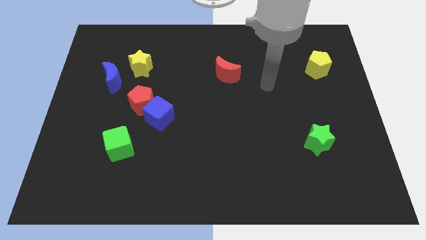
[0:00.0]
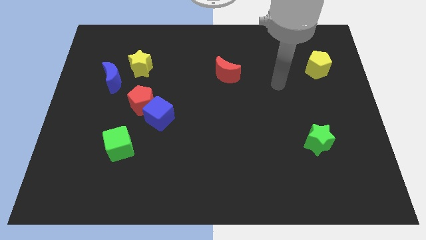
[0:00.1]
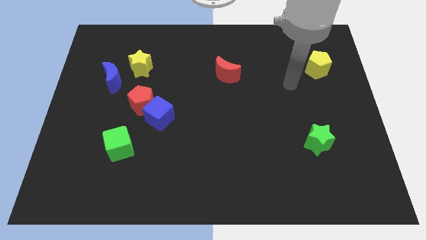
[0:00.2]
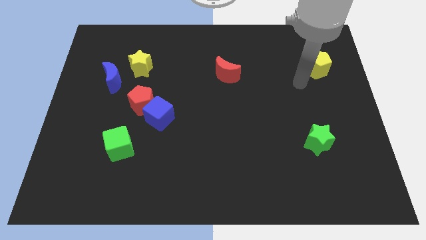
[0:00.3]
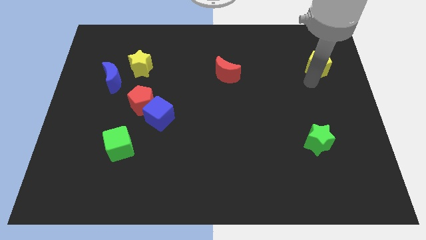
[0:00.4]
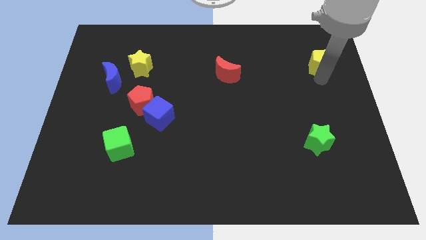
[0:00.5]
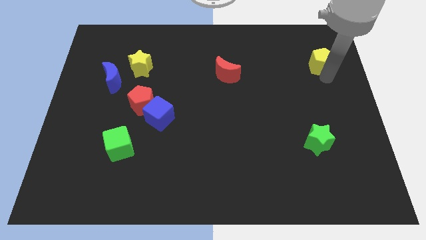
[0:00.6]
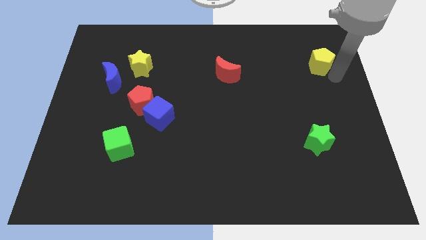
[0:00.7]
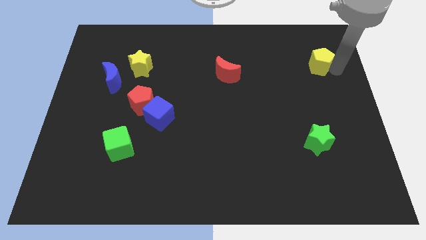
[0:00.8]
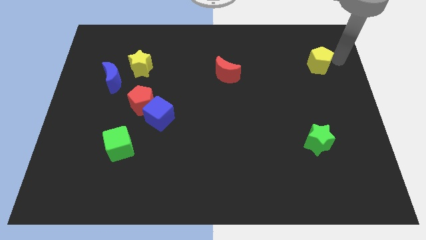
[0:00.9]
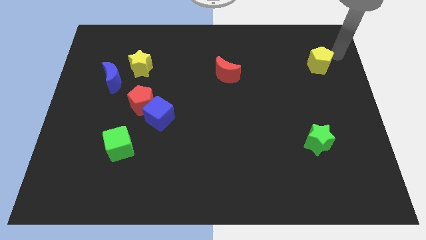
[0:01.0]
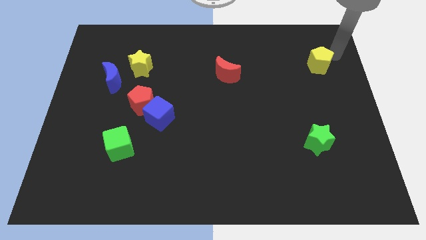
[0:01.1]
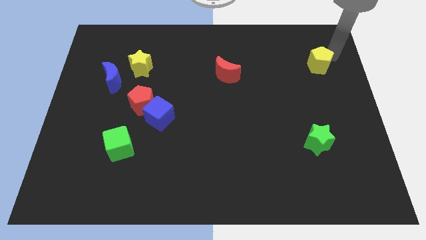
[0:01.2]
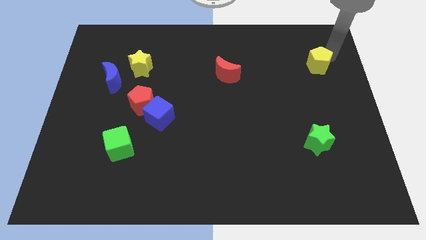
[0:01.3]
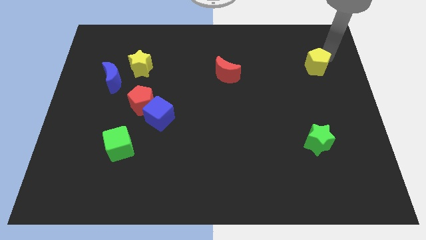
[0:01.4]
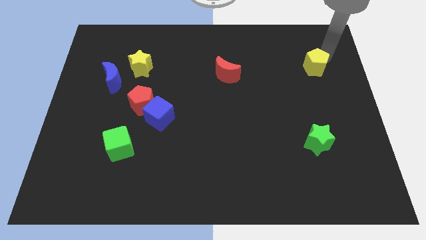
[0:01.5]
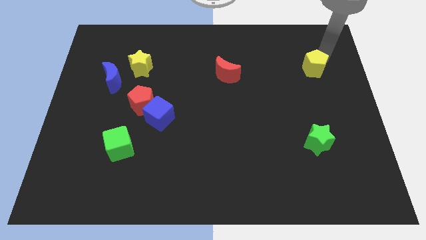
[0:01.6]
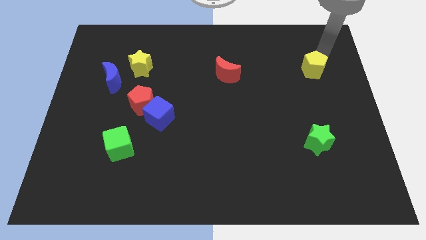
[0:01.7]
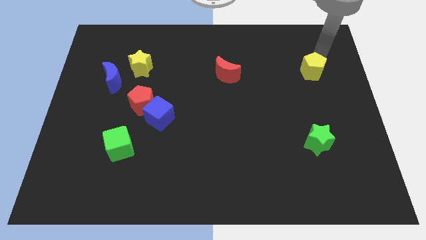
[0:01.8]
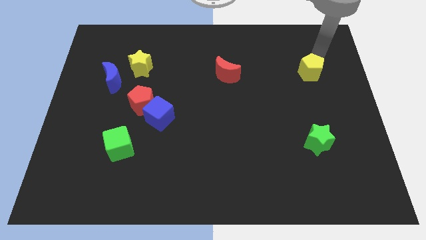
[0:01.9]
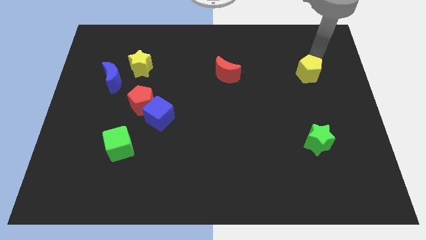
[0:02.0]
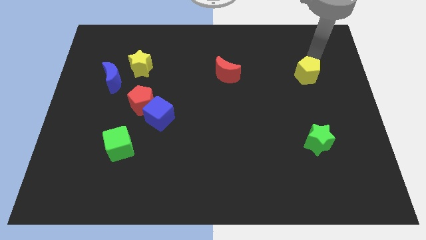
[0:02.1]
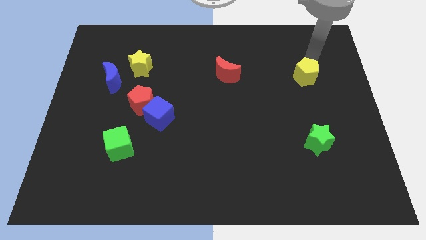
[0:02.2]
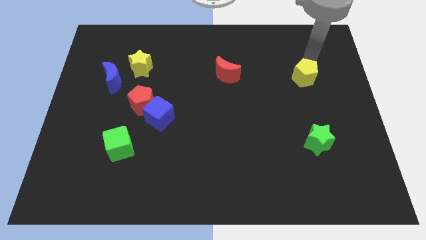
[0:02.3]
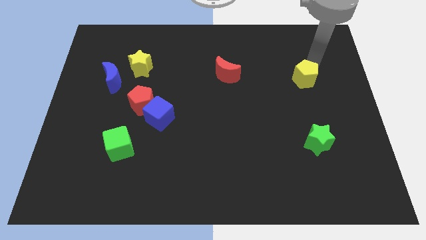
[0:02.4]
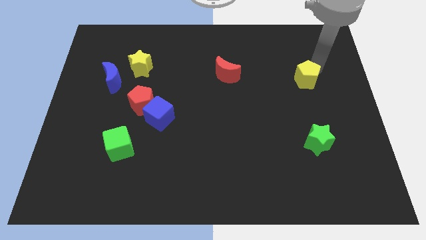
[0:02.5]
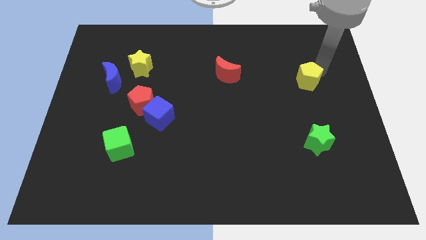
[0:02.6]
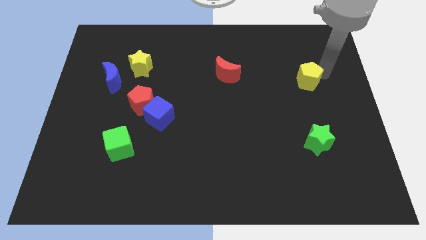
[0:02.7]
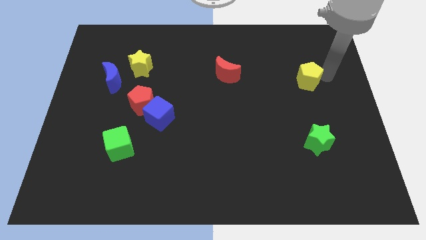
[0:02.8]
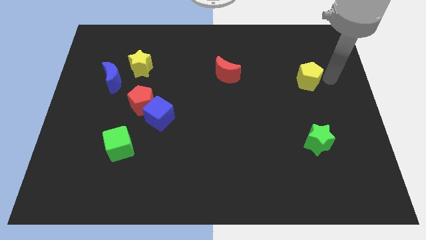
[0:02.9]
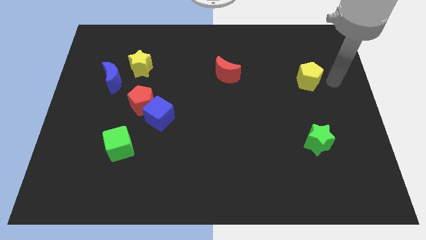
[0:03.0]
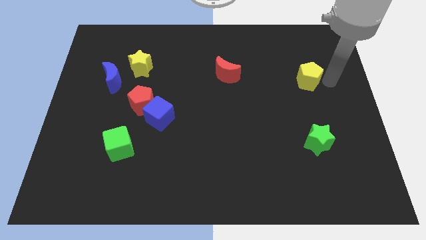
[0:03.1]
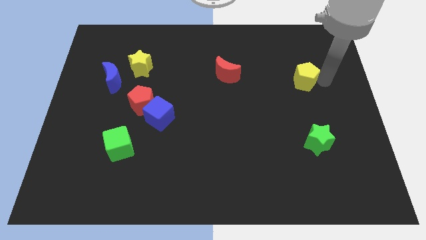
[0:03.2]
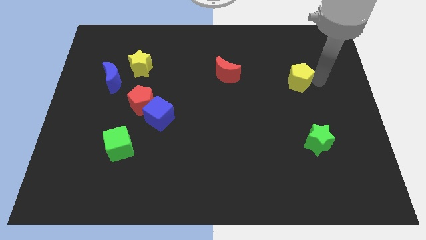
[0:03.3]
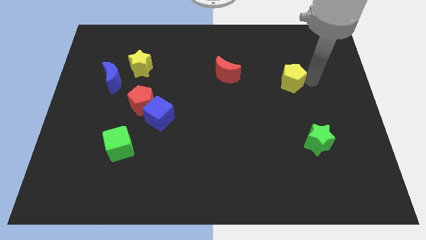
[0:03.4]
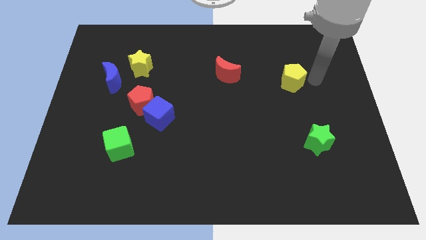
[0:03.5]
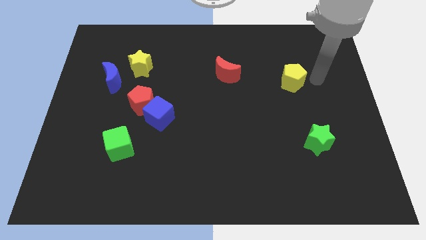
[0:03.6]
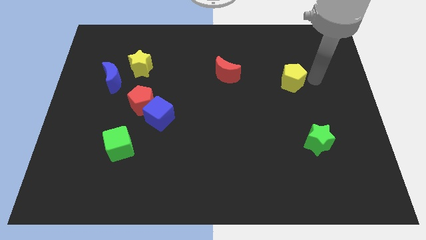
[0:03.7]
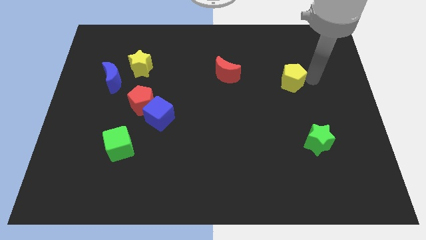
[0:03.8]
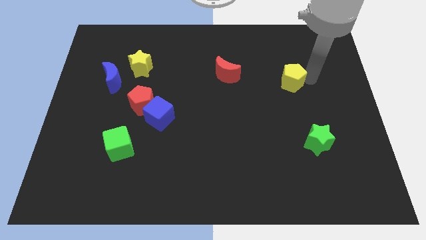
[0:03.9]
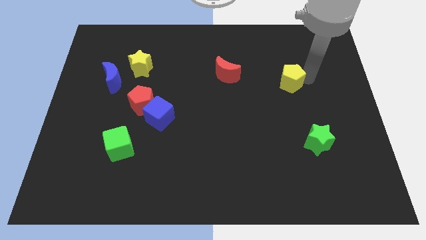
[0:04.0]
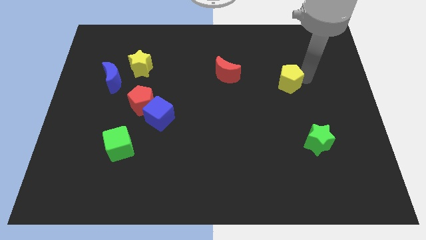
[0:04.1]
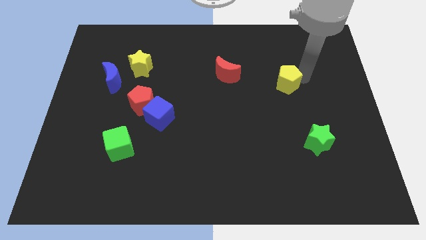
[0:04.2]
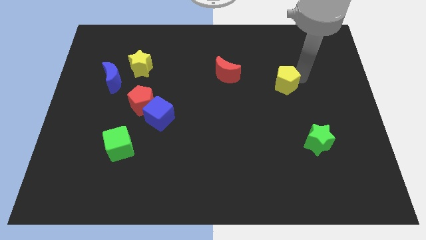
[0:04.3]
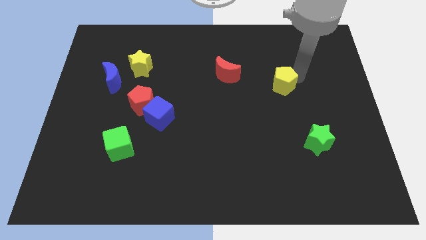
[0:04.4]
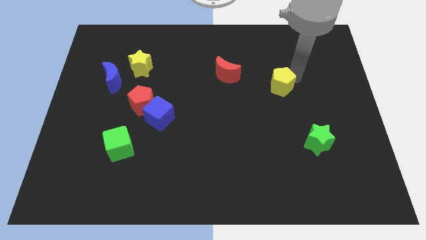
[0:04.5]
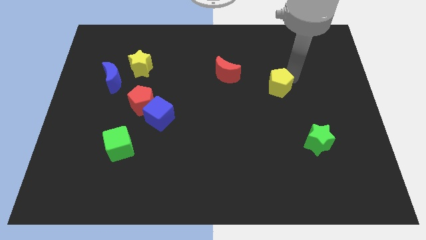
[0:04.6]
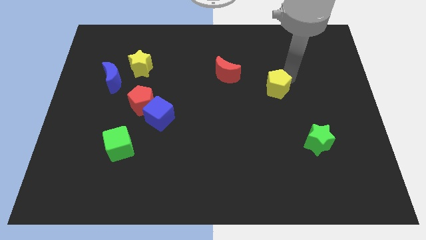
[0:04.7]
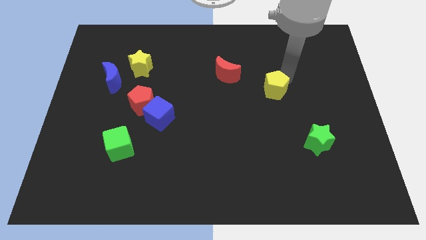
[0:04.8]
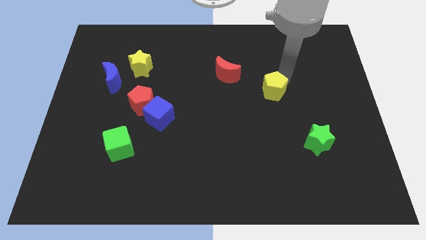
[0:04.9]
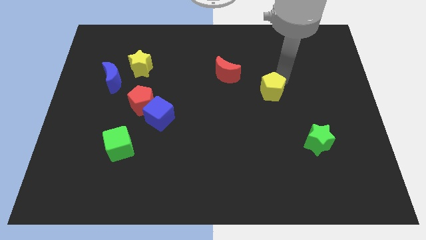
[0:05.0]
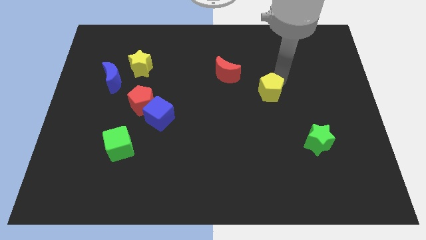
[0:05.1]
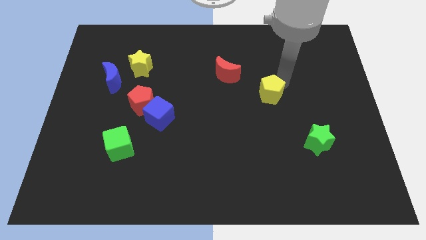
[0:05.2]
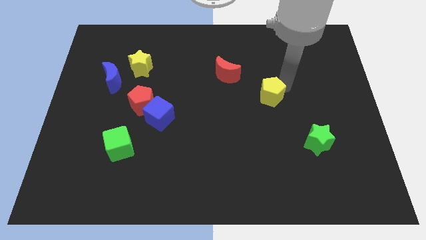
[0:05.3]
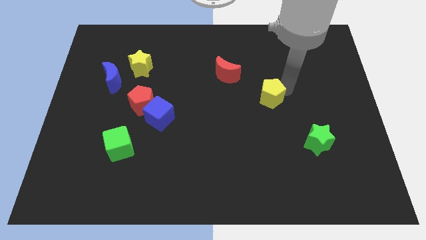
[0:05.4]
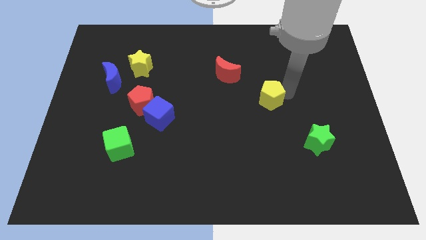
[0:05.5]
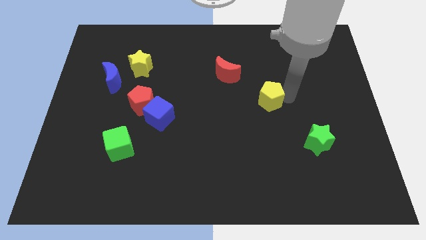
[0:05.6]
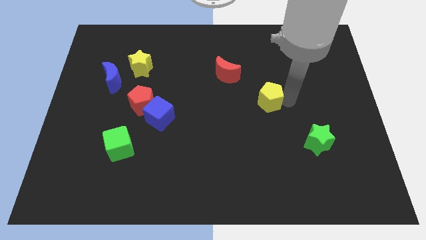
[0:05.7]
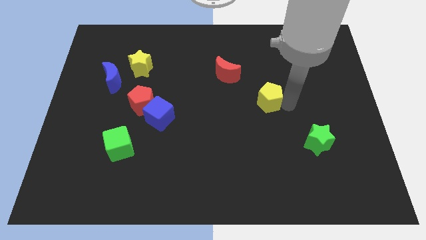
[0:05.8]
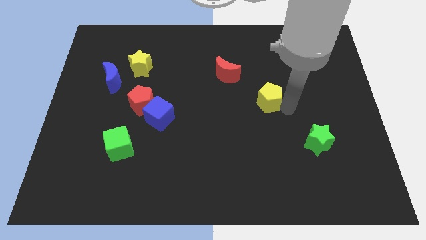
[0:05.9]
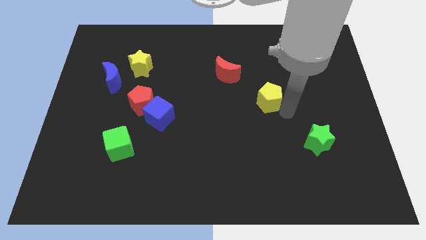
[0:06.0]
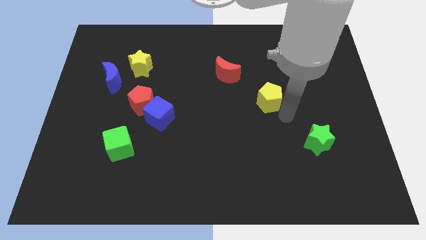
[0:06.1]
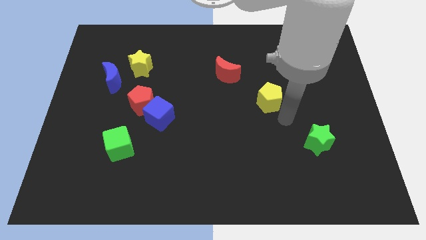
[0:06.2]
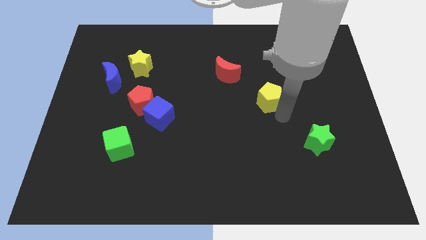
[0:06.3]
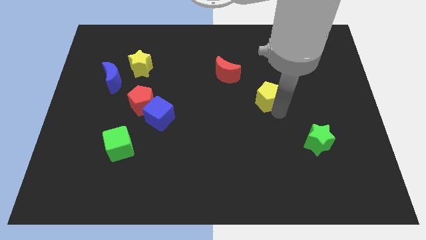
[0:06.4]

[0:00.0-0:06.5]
push the yellow pentagon to the center of the board
